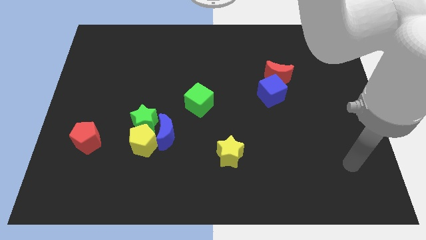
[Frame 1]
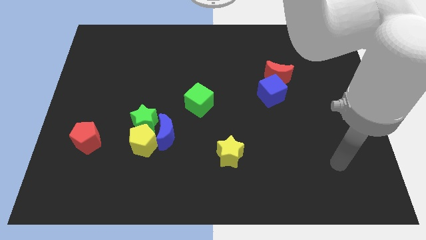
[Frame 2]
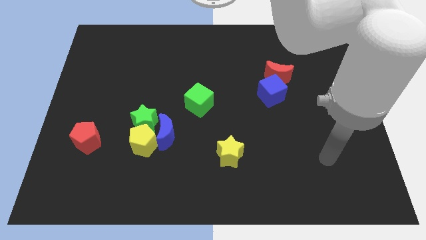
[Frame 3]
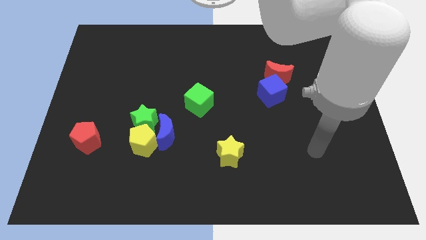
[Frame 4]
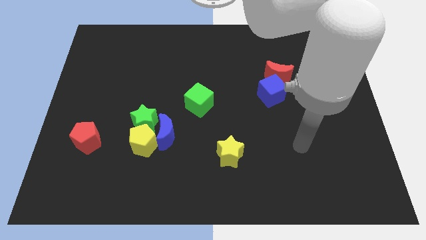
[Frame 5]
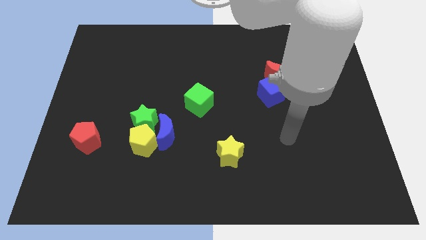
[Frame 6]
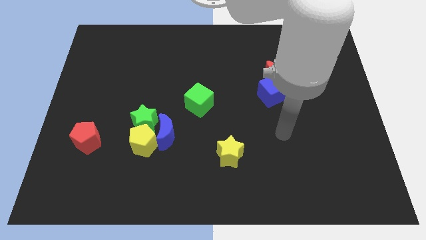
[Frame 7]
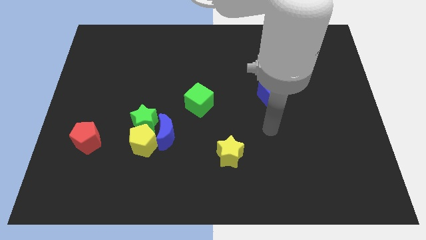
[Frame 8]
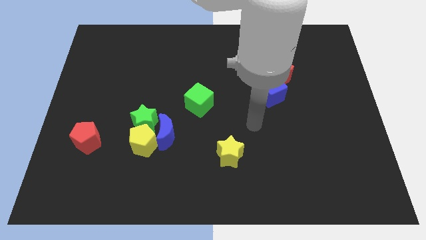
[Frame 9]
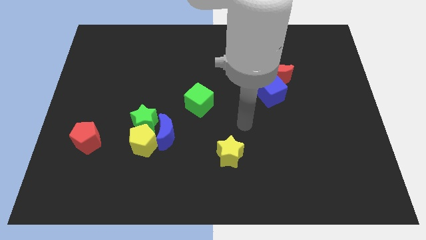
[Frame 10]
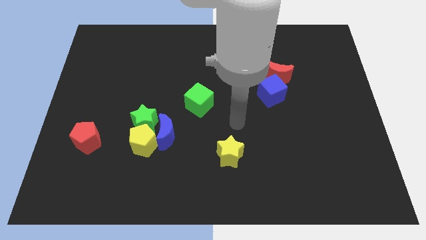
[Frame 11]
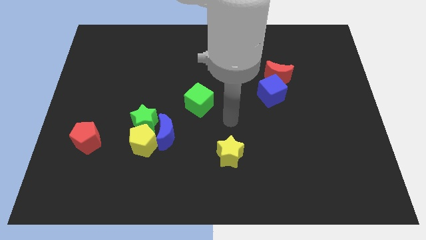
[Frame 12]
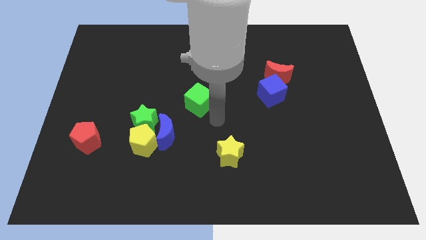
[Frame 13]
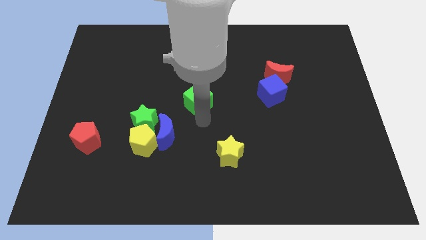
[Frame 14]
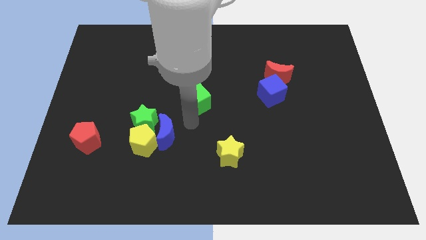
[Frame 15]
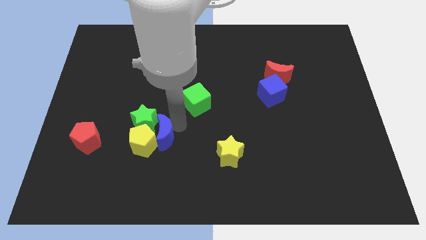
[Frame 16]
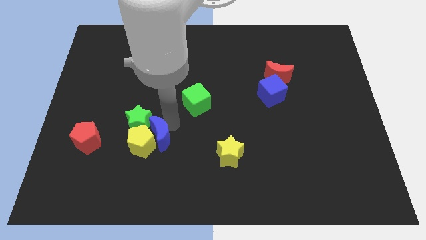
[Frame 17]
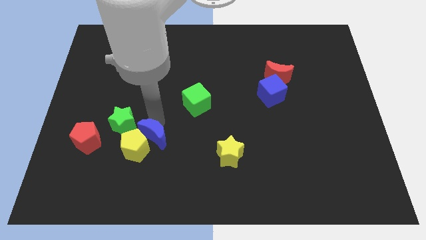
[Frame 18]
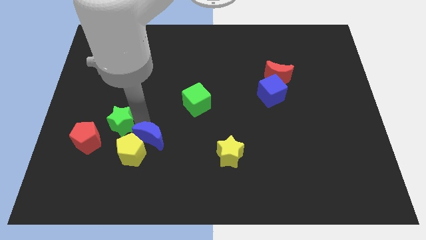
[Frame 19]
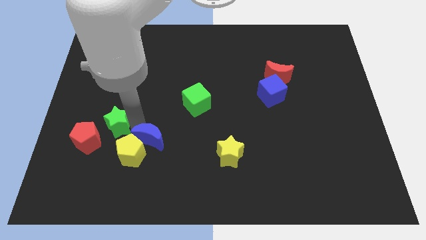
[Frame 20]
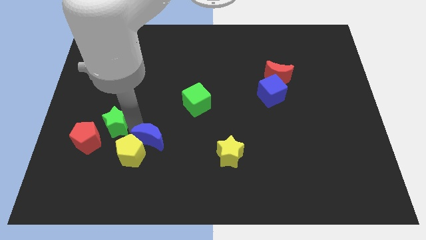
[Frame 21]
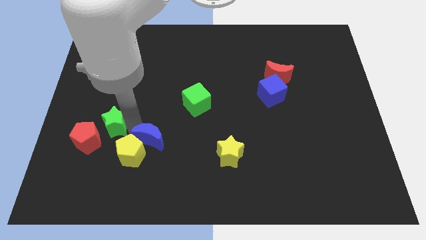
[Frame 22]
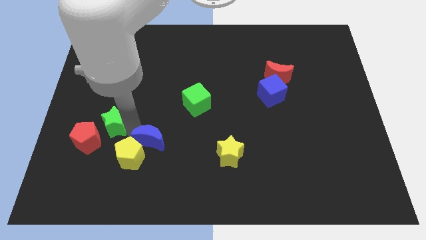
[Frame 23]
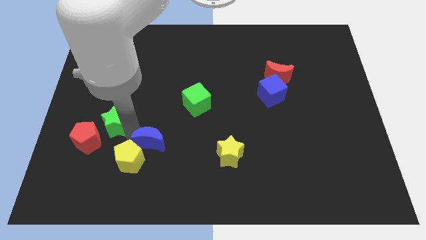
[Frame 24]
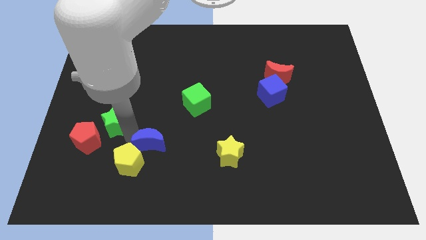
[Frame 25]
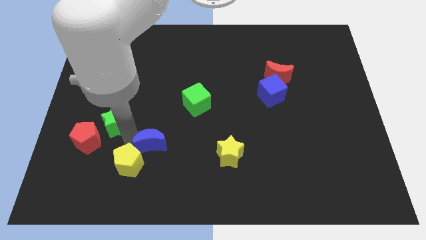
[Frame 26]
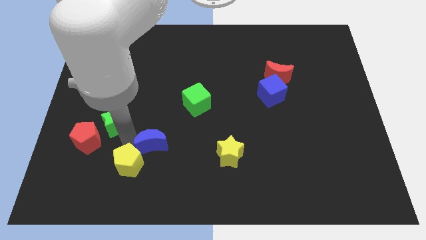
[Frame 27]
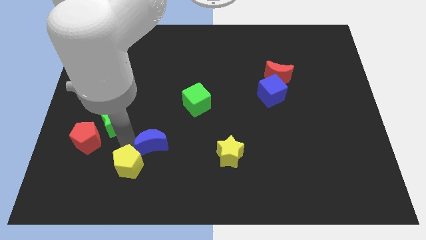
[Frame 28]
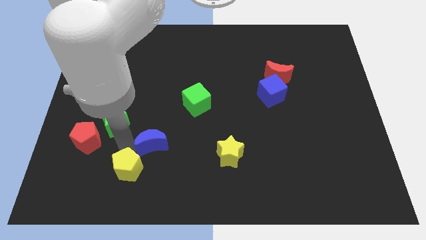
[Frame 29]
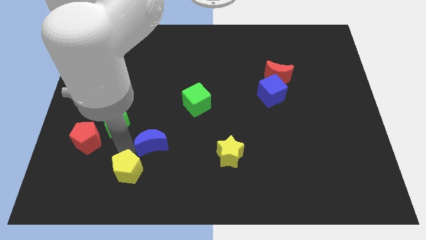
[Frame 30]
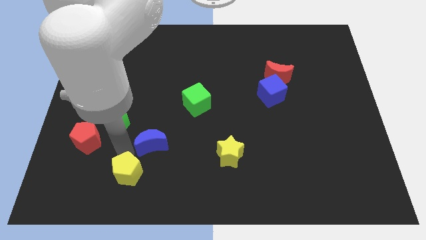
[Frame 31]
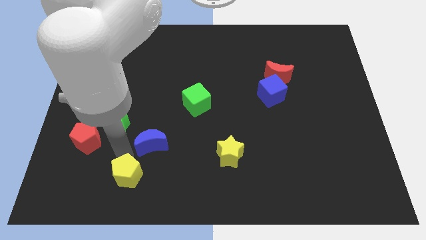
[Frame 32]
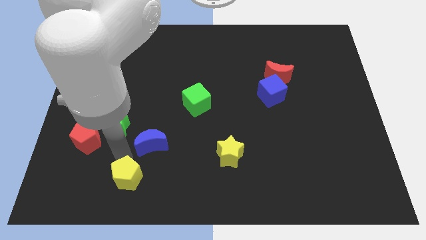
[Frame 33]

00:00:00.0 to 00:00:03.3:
move the yellow pentagon away from the blue moon and green star

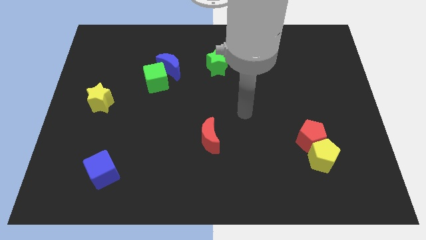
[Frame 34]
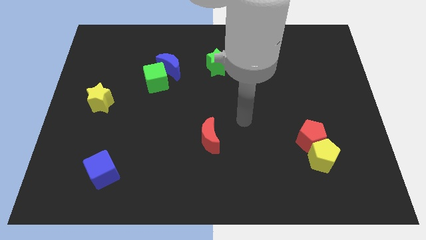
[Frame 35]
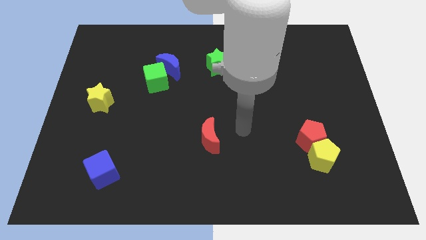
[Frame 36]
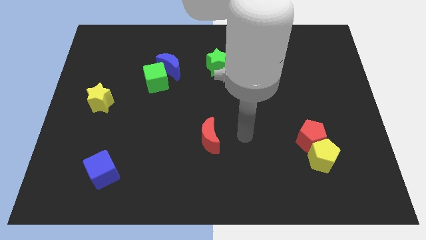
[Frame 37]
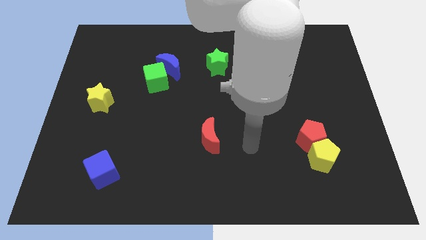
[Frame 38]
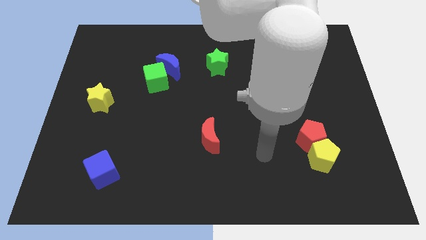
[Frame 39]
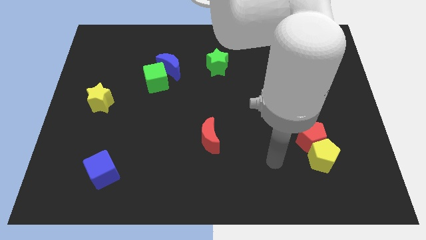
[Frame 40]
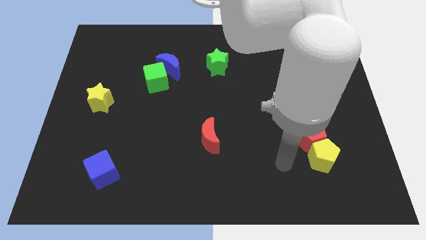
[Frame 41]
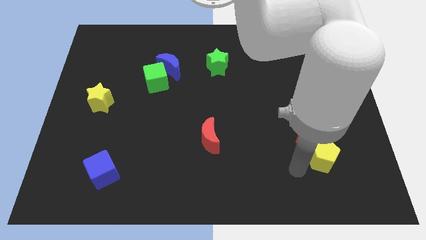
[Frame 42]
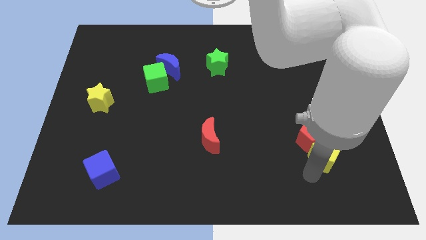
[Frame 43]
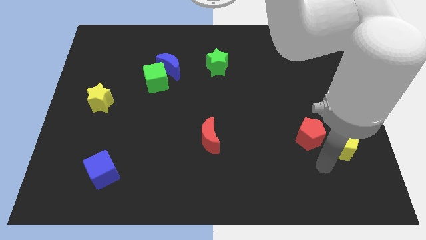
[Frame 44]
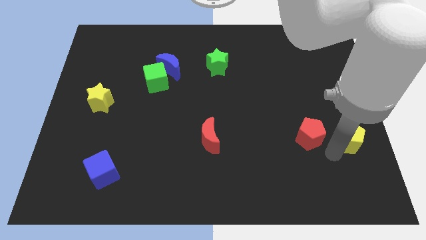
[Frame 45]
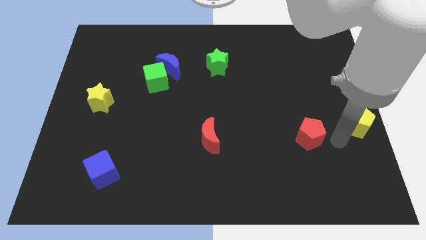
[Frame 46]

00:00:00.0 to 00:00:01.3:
pull the red pentagon apart from the yellow pentagon

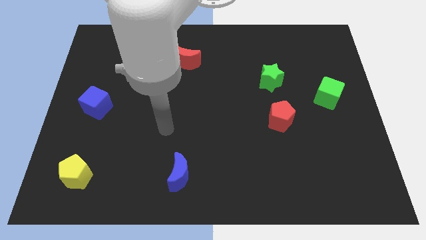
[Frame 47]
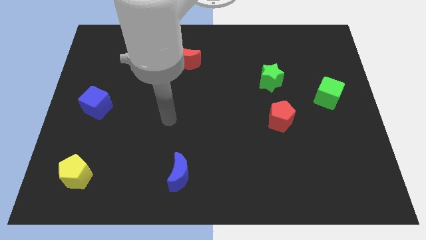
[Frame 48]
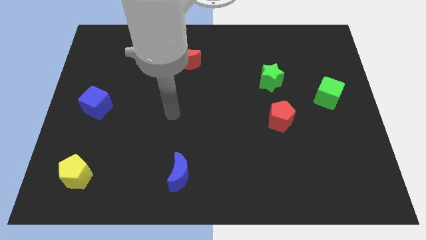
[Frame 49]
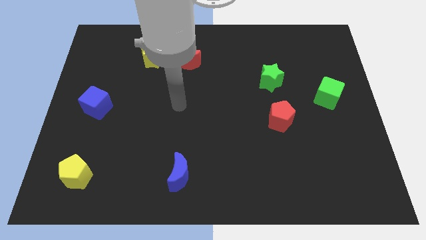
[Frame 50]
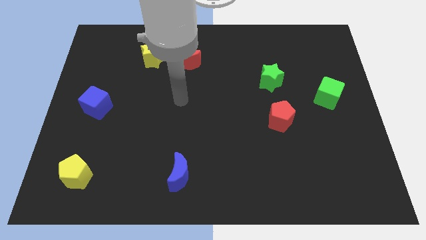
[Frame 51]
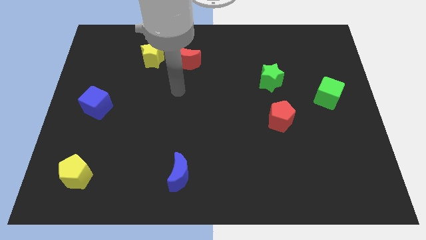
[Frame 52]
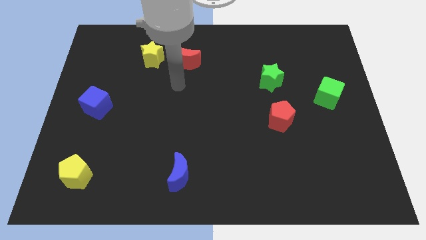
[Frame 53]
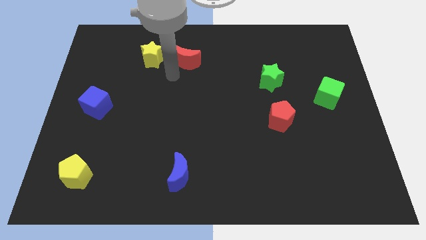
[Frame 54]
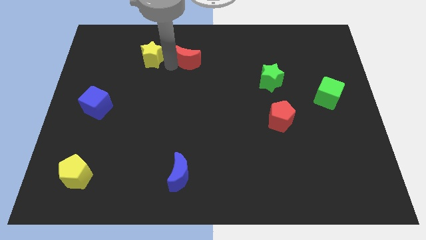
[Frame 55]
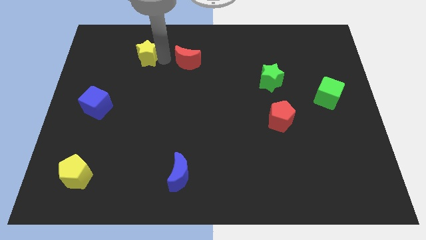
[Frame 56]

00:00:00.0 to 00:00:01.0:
separate the red moon from the yellow star

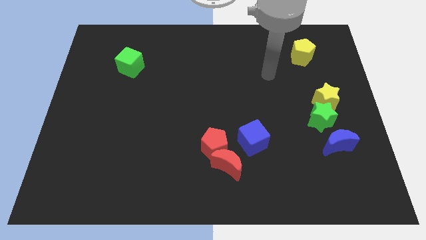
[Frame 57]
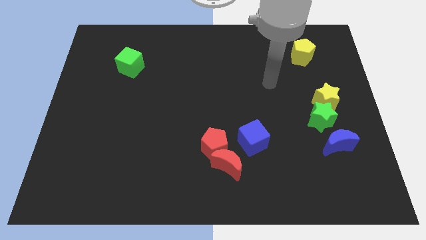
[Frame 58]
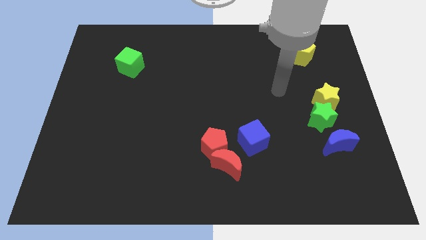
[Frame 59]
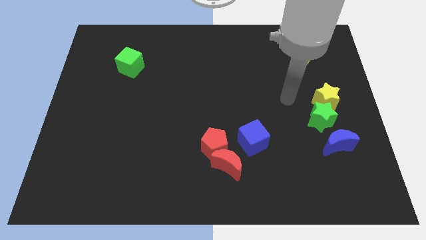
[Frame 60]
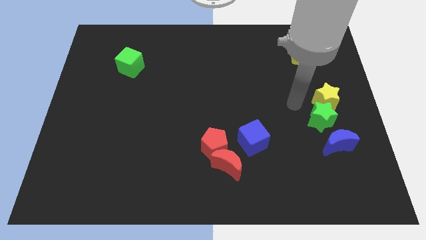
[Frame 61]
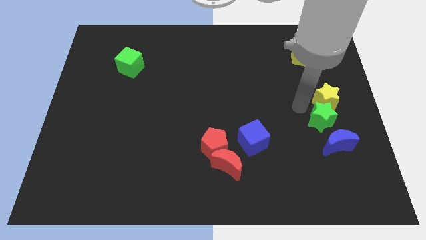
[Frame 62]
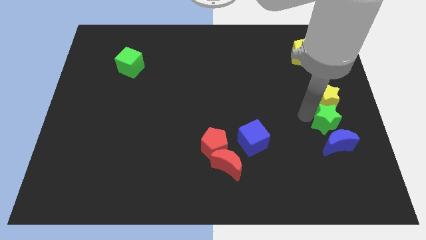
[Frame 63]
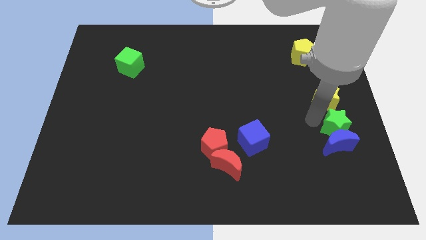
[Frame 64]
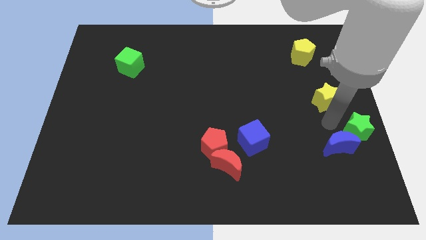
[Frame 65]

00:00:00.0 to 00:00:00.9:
separate the yellow star from the green star

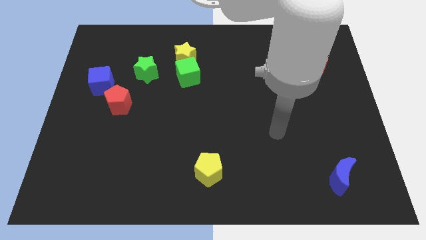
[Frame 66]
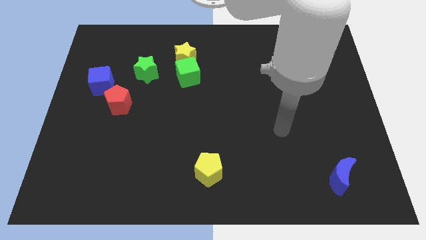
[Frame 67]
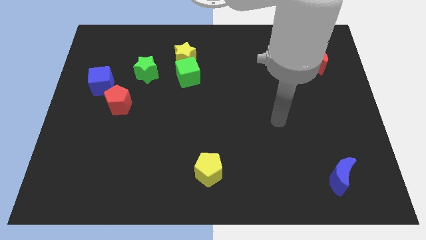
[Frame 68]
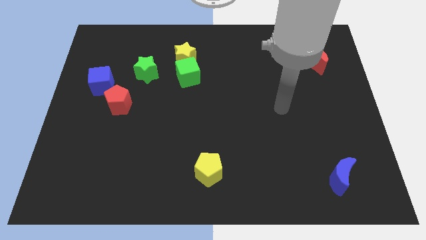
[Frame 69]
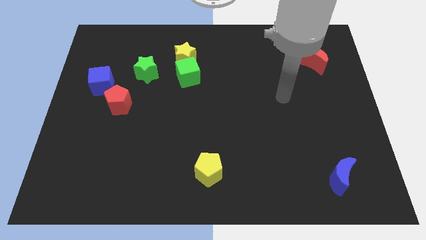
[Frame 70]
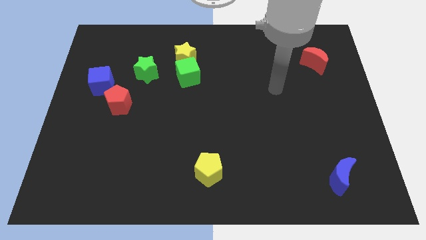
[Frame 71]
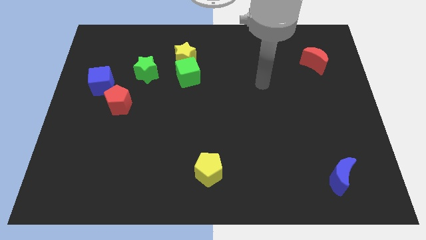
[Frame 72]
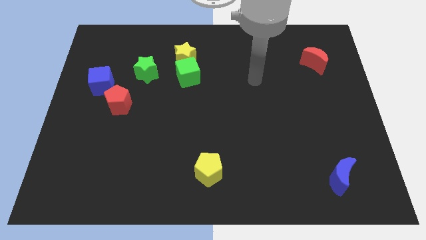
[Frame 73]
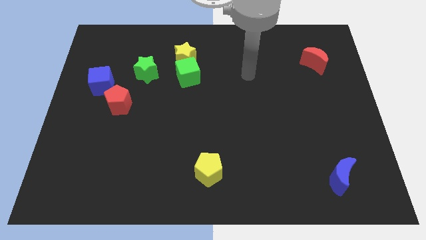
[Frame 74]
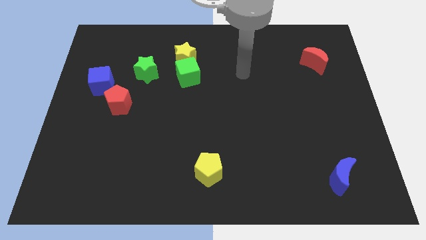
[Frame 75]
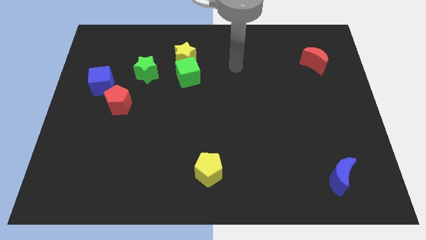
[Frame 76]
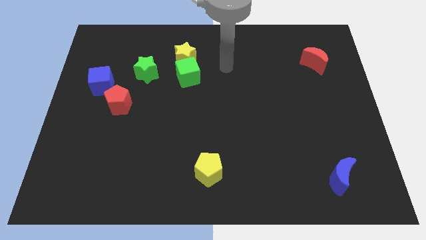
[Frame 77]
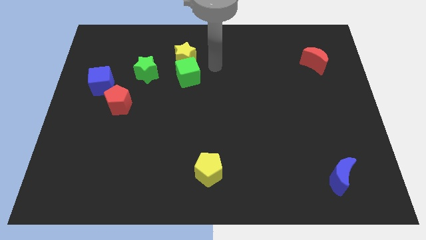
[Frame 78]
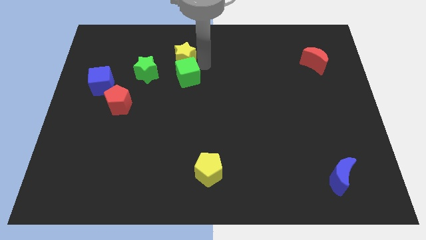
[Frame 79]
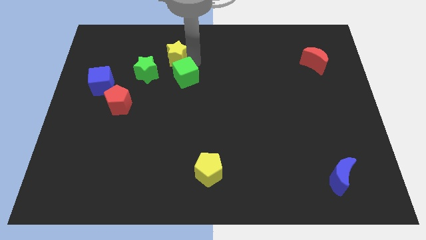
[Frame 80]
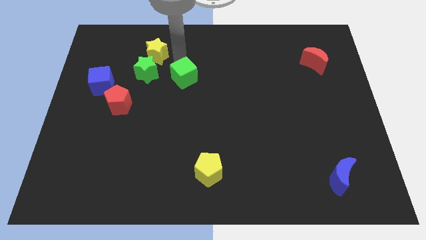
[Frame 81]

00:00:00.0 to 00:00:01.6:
move the green cube away from the yellow star

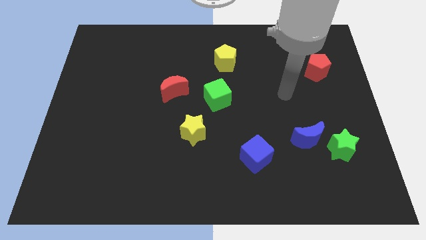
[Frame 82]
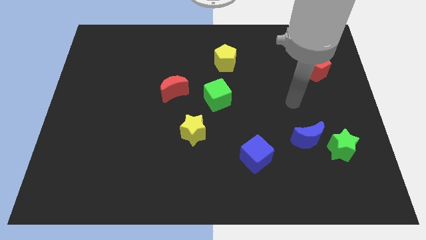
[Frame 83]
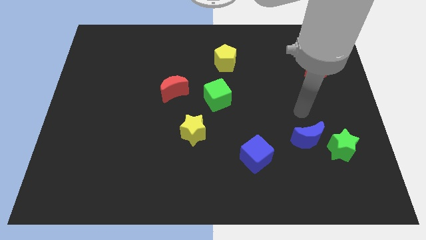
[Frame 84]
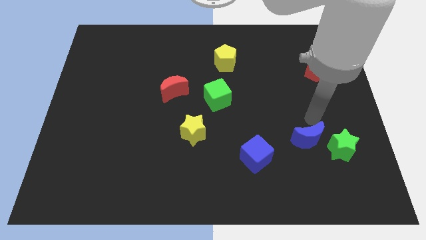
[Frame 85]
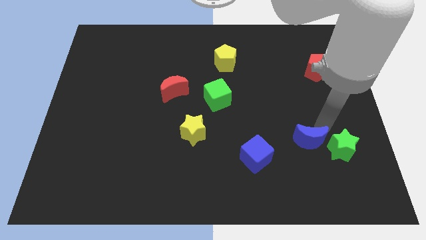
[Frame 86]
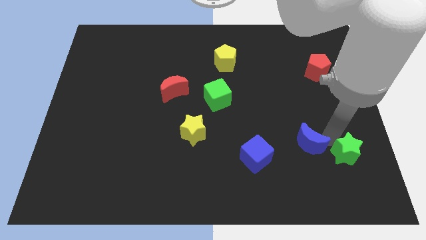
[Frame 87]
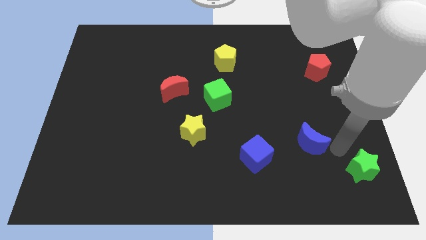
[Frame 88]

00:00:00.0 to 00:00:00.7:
move the blue moon away from the green star

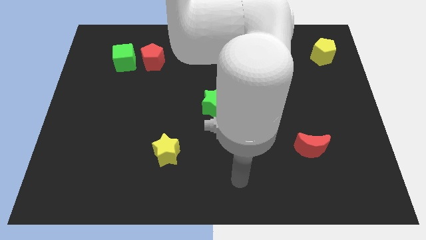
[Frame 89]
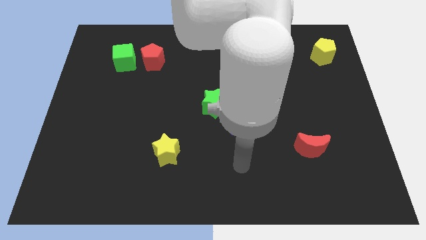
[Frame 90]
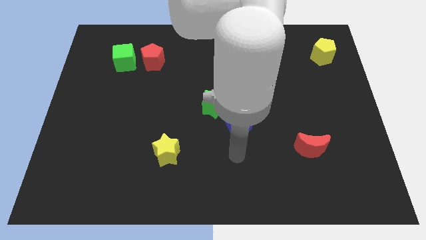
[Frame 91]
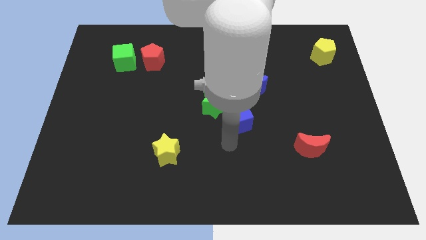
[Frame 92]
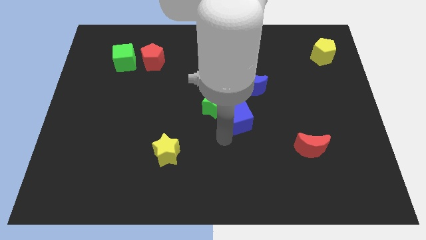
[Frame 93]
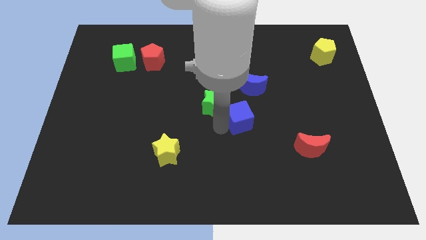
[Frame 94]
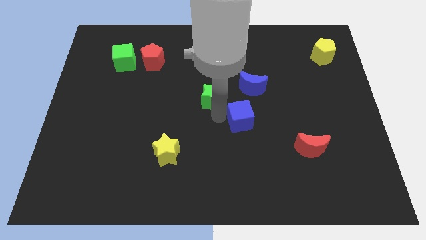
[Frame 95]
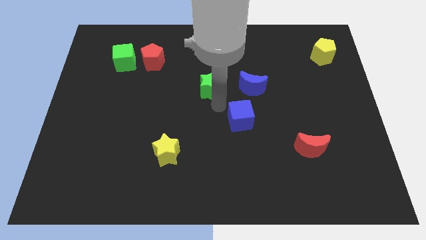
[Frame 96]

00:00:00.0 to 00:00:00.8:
separate the blue cube from the green star
